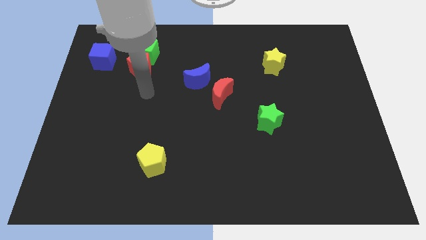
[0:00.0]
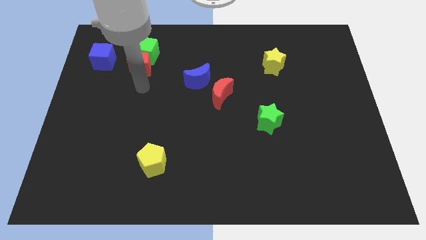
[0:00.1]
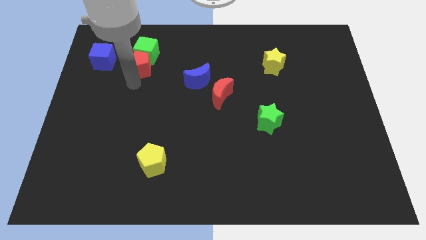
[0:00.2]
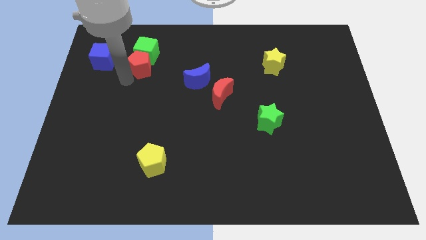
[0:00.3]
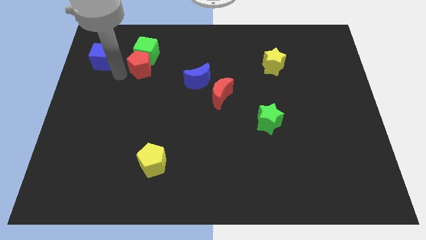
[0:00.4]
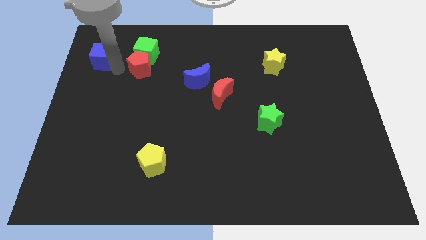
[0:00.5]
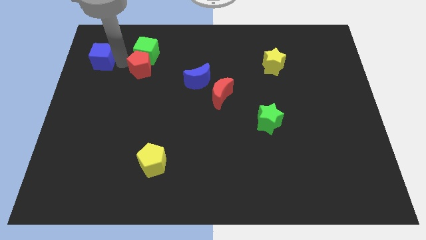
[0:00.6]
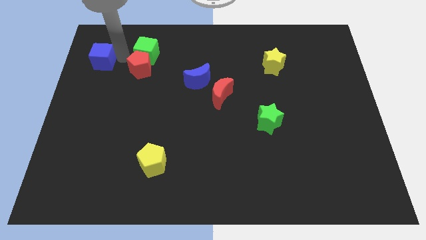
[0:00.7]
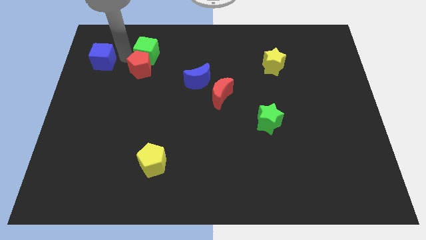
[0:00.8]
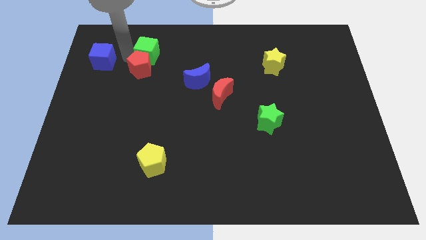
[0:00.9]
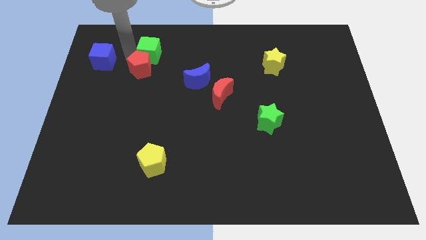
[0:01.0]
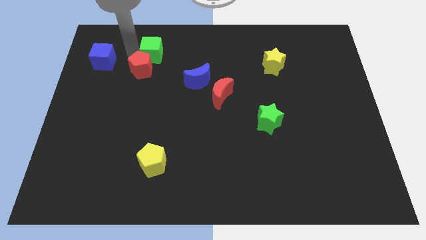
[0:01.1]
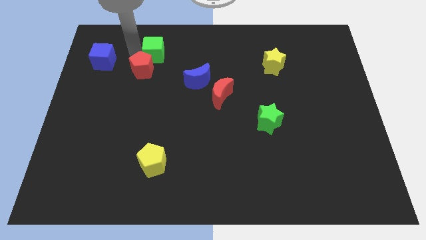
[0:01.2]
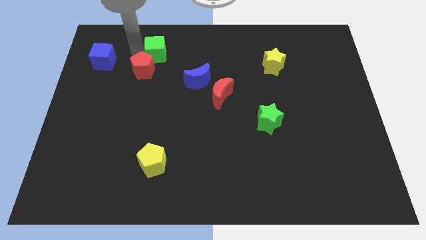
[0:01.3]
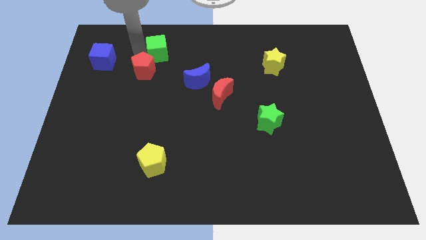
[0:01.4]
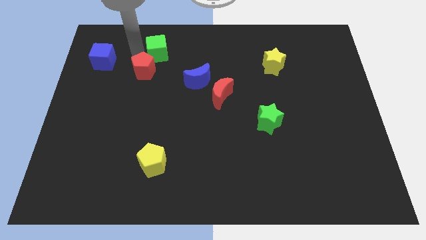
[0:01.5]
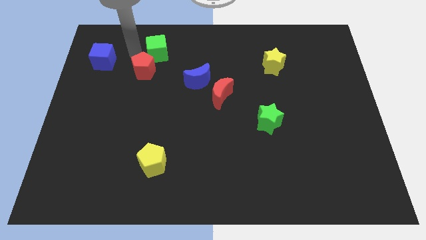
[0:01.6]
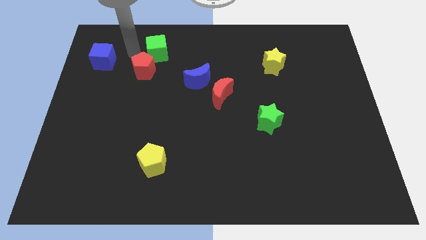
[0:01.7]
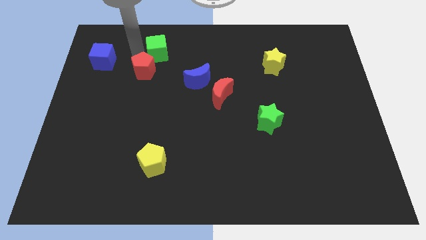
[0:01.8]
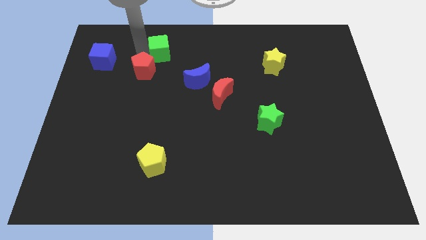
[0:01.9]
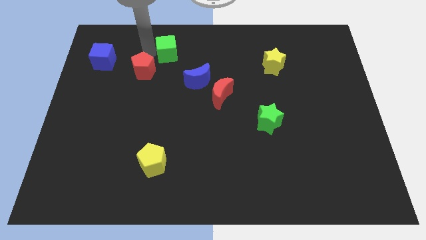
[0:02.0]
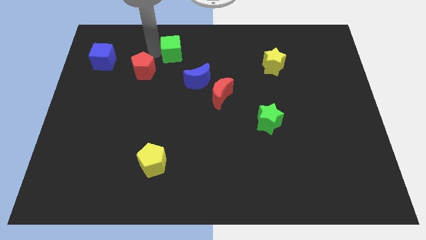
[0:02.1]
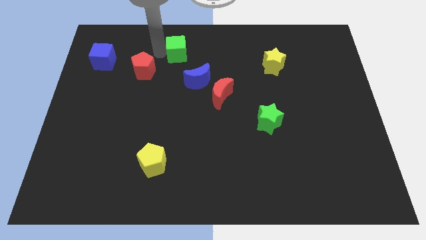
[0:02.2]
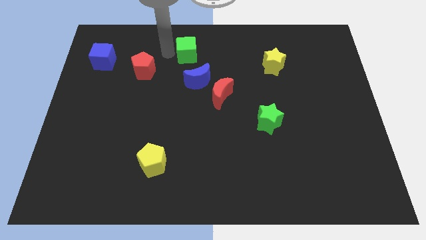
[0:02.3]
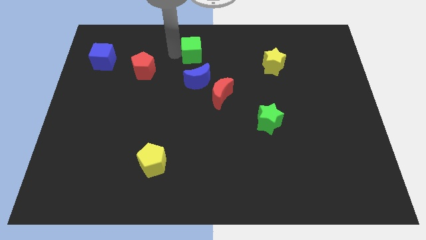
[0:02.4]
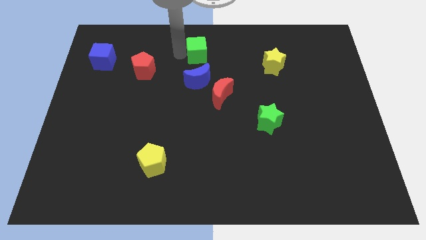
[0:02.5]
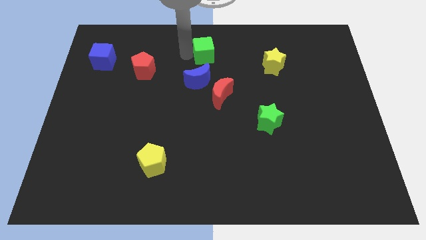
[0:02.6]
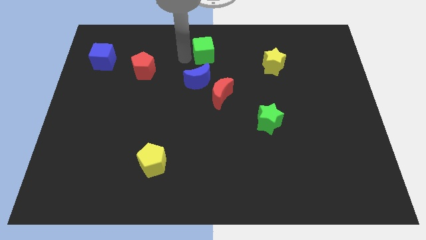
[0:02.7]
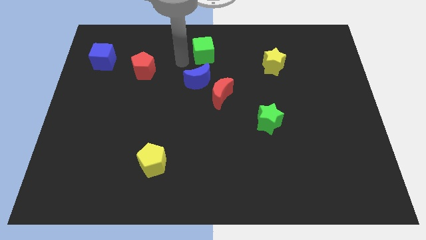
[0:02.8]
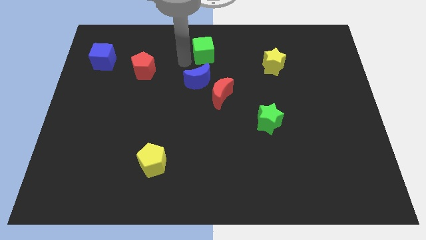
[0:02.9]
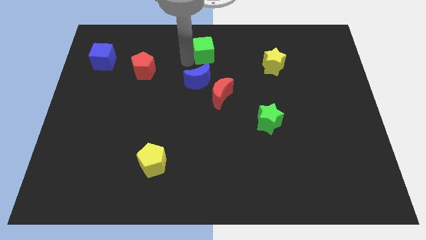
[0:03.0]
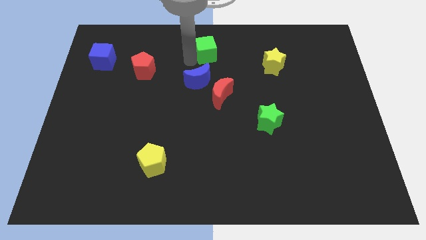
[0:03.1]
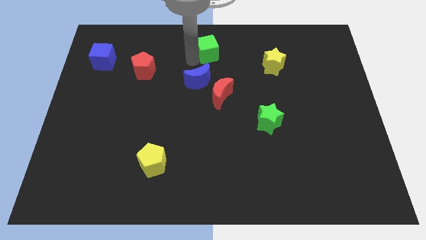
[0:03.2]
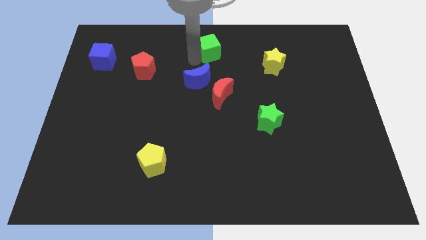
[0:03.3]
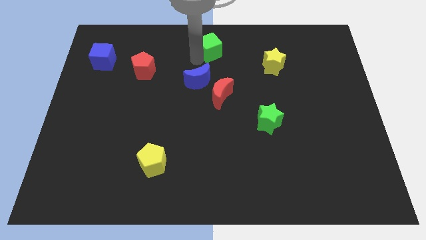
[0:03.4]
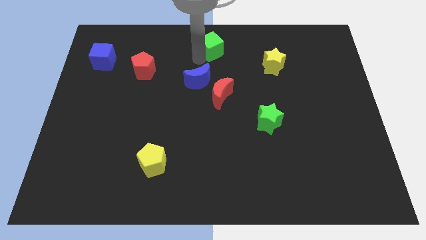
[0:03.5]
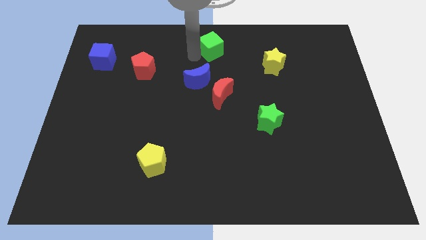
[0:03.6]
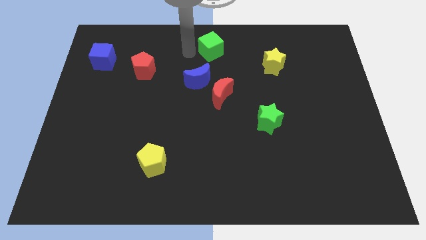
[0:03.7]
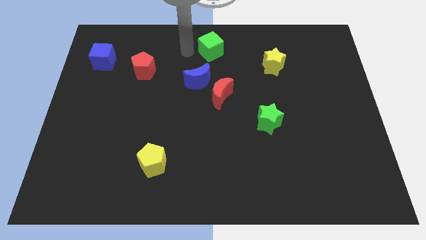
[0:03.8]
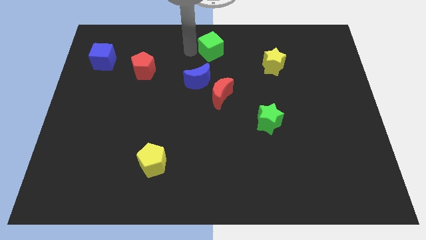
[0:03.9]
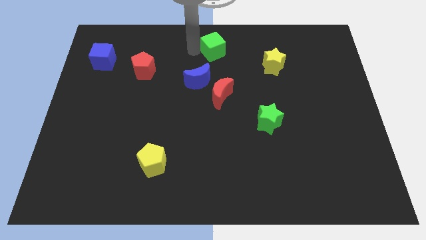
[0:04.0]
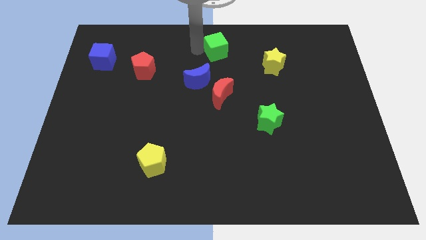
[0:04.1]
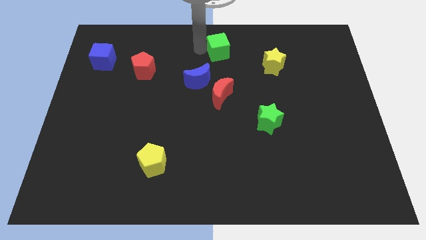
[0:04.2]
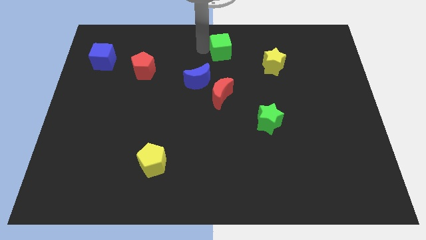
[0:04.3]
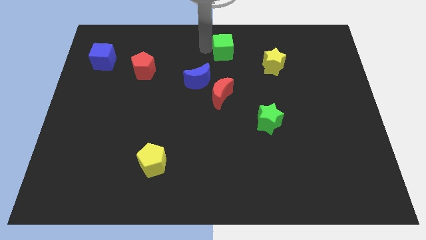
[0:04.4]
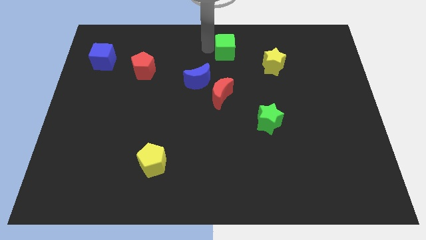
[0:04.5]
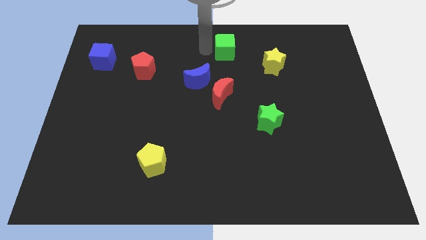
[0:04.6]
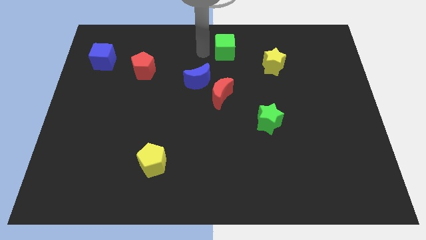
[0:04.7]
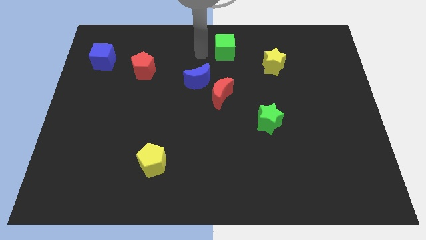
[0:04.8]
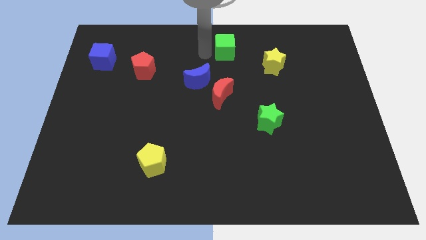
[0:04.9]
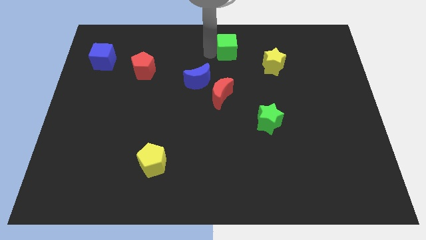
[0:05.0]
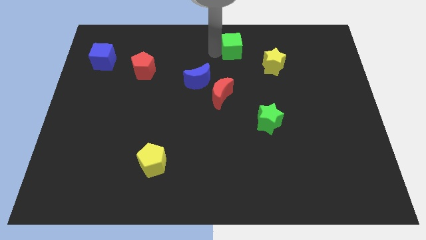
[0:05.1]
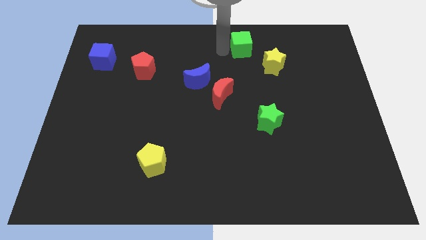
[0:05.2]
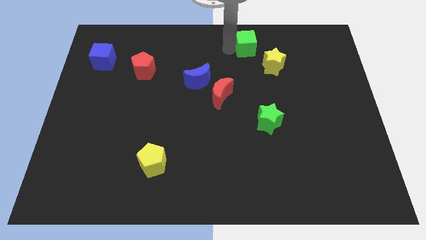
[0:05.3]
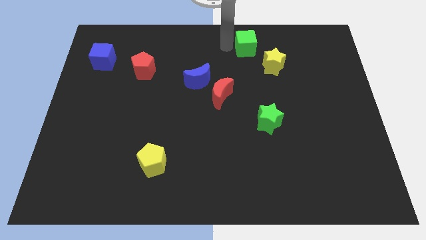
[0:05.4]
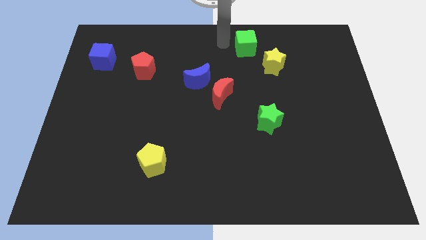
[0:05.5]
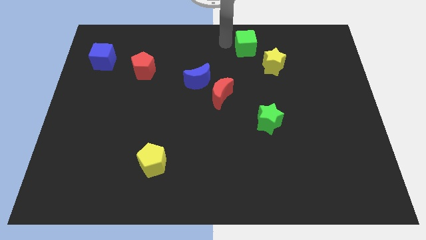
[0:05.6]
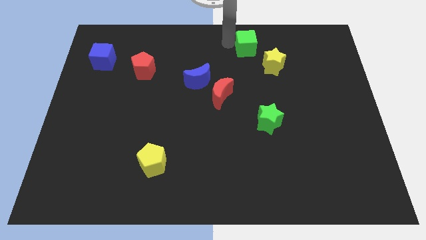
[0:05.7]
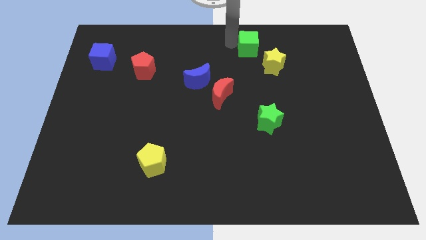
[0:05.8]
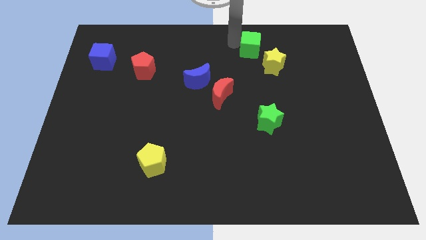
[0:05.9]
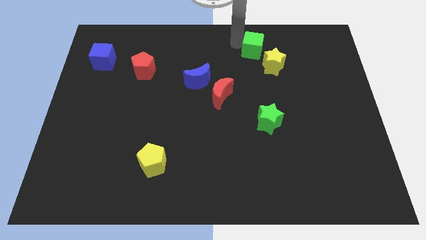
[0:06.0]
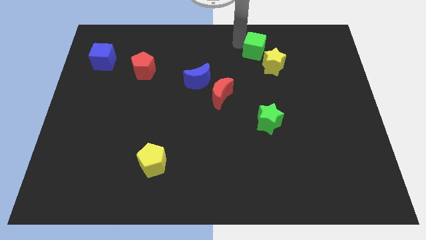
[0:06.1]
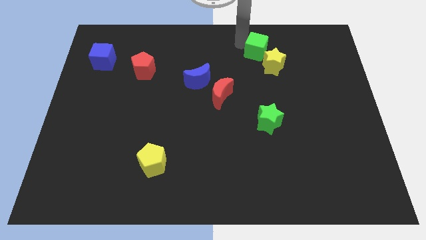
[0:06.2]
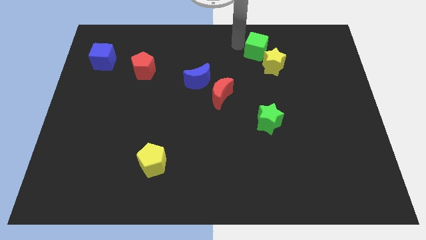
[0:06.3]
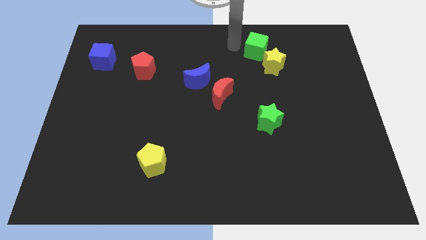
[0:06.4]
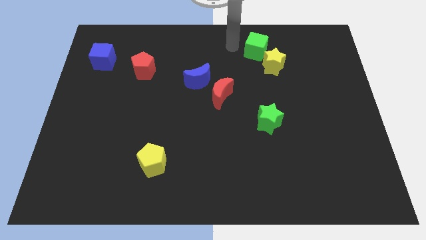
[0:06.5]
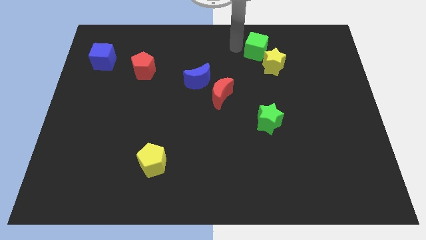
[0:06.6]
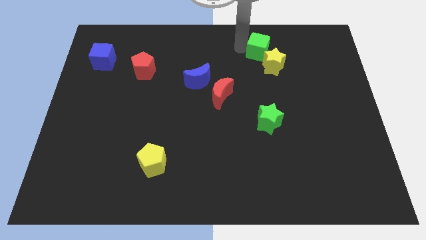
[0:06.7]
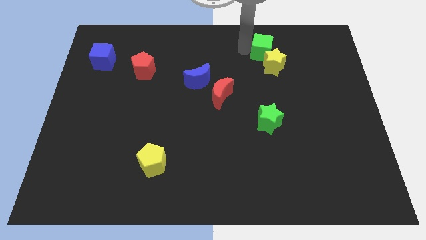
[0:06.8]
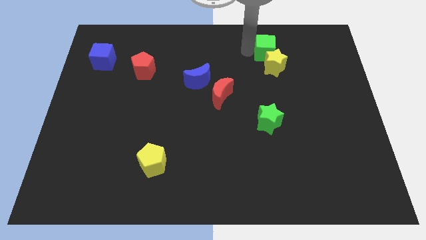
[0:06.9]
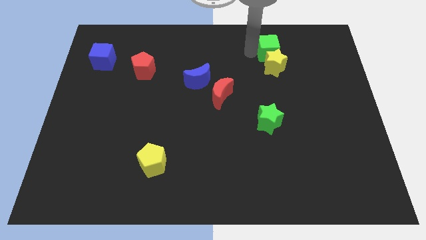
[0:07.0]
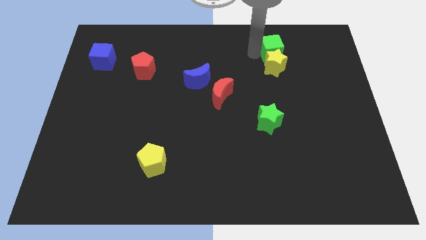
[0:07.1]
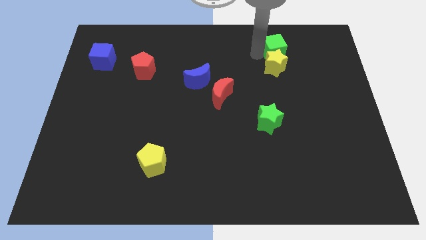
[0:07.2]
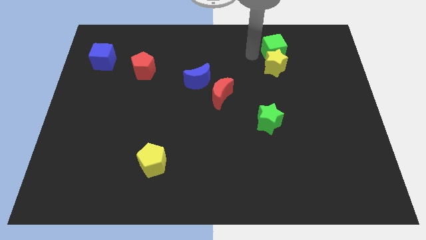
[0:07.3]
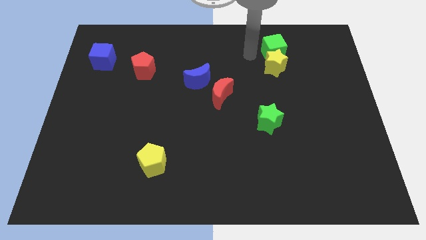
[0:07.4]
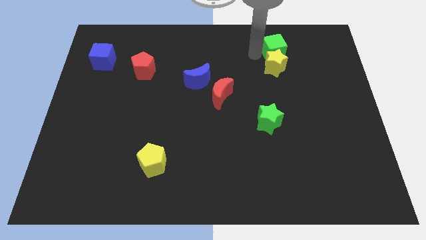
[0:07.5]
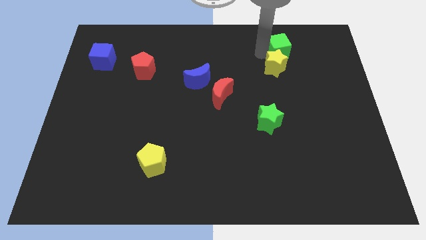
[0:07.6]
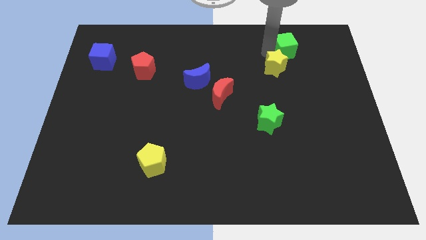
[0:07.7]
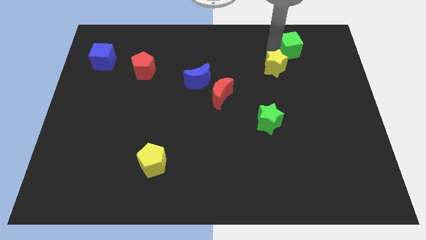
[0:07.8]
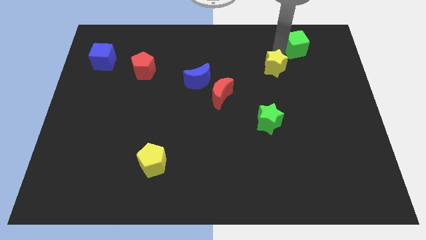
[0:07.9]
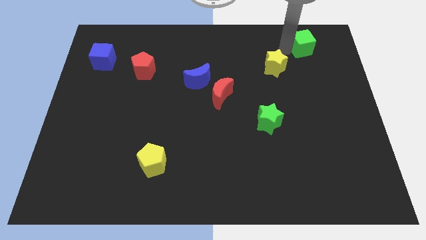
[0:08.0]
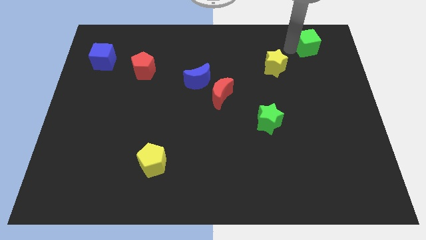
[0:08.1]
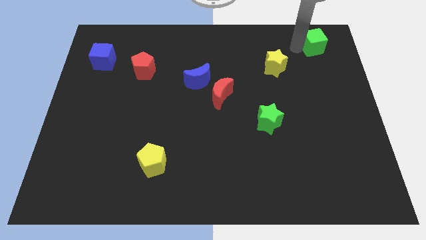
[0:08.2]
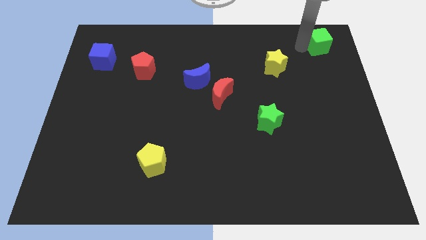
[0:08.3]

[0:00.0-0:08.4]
push the green cube to the top right
